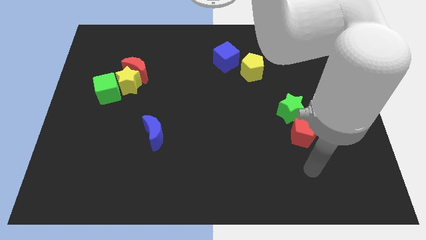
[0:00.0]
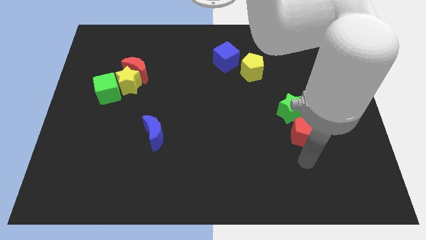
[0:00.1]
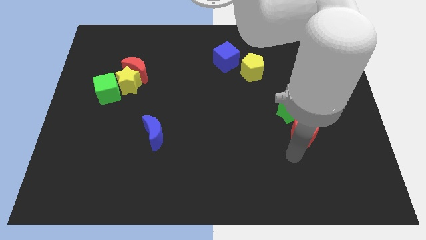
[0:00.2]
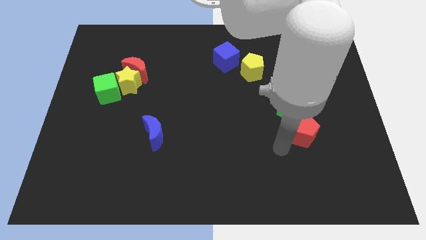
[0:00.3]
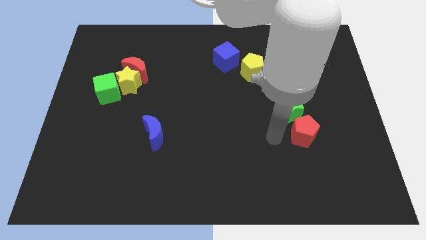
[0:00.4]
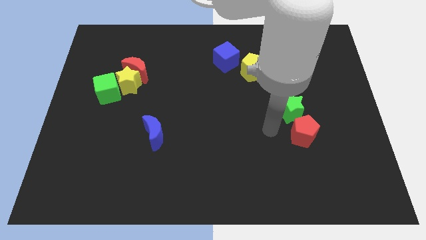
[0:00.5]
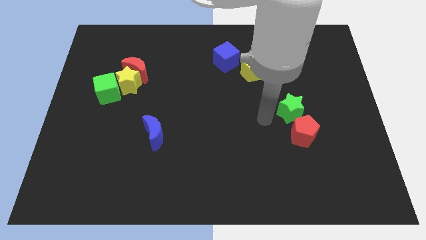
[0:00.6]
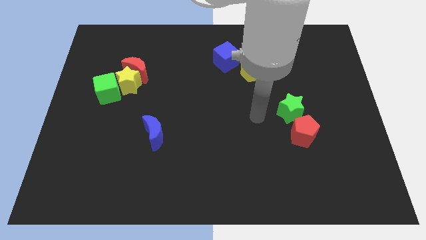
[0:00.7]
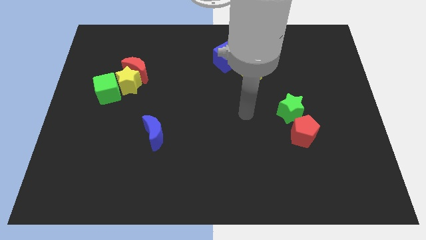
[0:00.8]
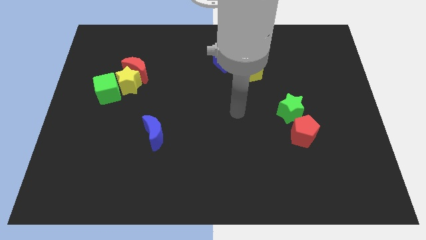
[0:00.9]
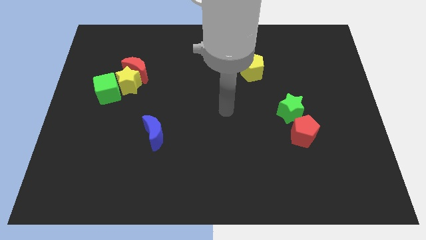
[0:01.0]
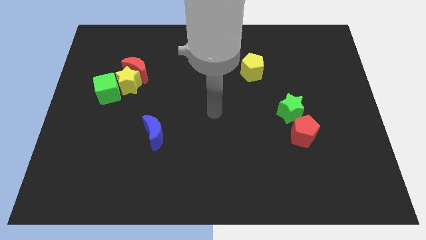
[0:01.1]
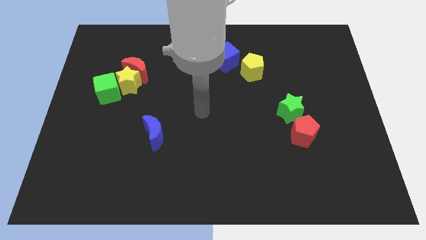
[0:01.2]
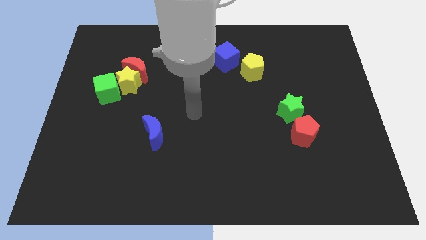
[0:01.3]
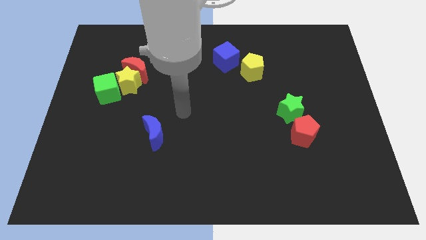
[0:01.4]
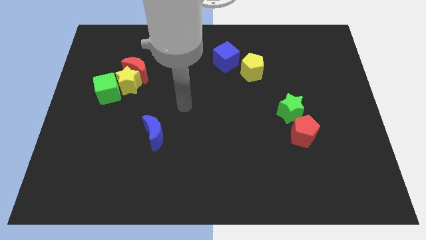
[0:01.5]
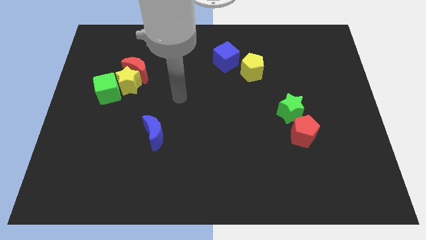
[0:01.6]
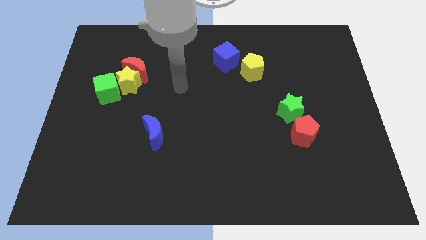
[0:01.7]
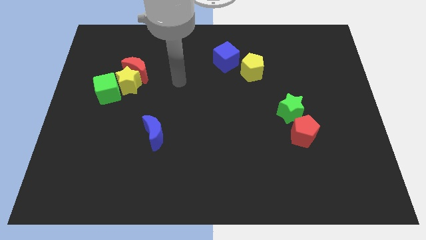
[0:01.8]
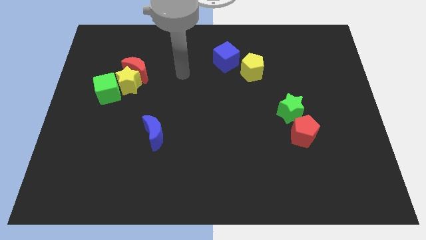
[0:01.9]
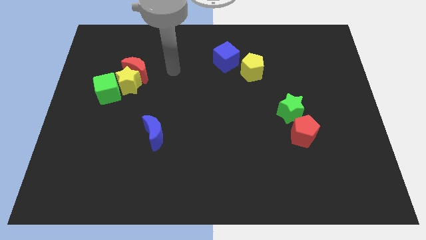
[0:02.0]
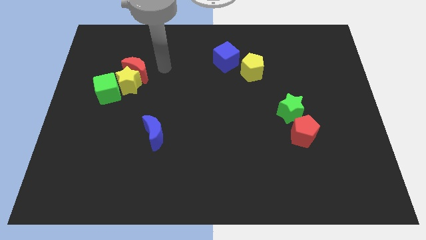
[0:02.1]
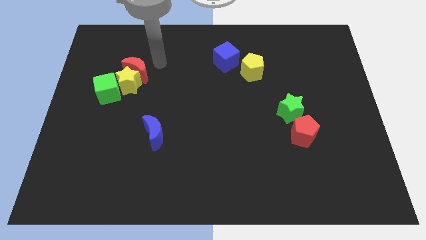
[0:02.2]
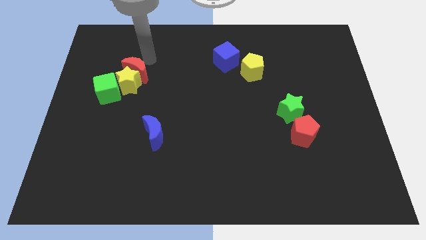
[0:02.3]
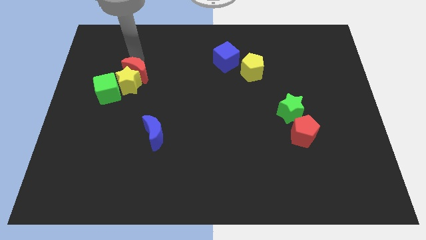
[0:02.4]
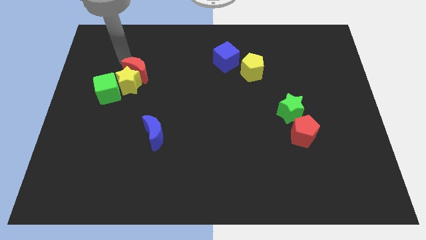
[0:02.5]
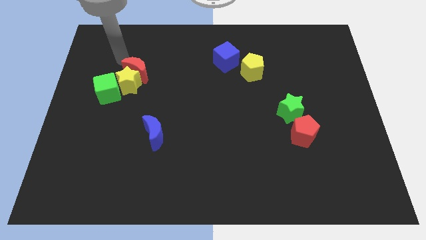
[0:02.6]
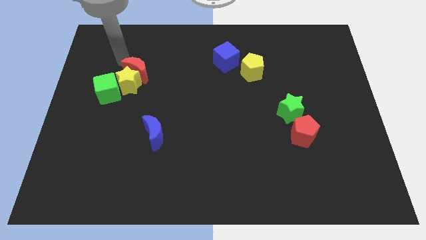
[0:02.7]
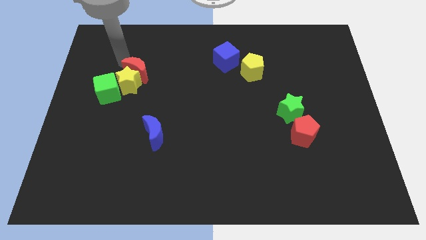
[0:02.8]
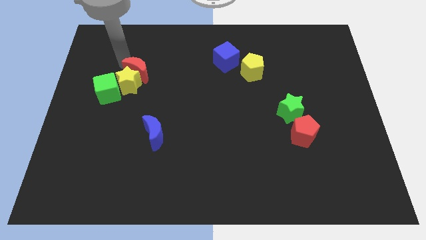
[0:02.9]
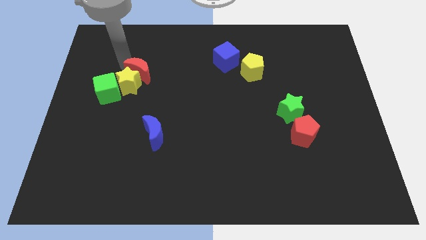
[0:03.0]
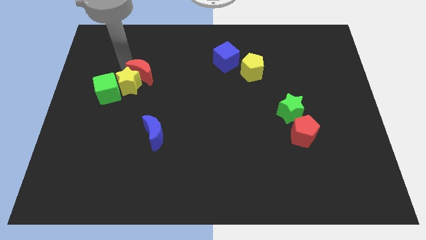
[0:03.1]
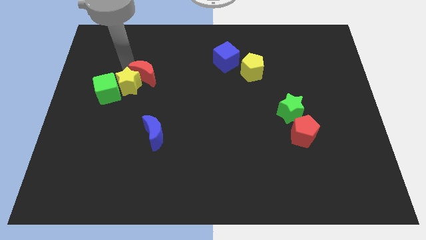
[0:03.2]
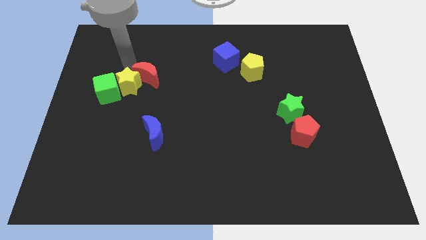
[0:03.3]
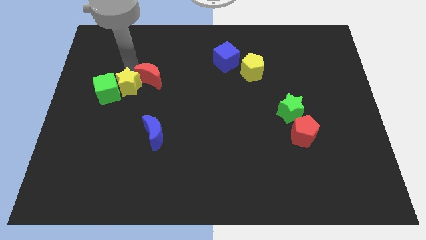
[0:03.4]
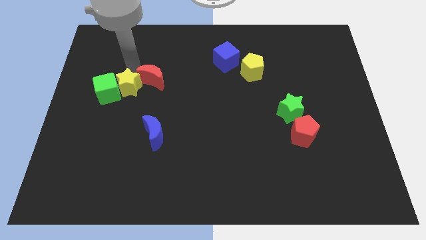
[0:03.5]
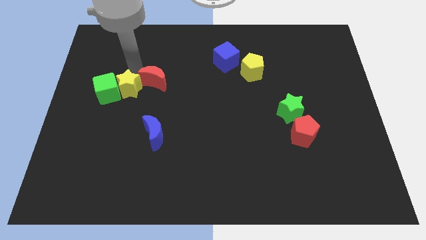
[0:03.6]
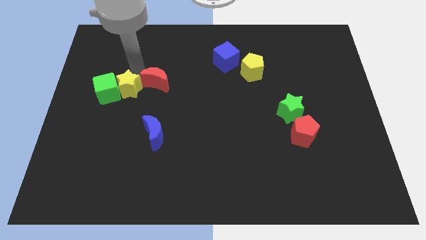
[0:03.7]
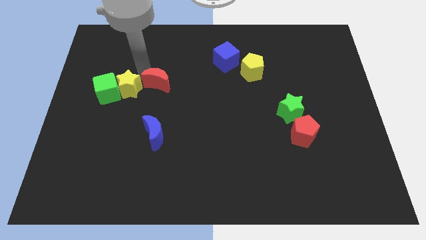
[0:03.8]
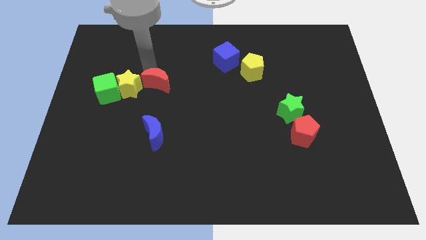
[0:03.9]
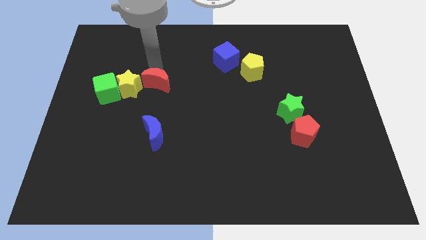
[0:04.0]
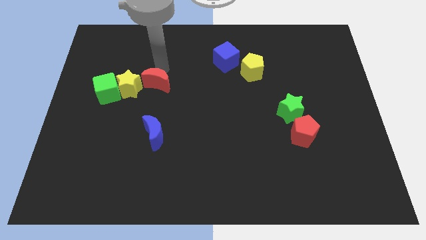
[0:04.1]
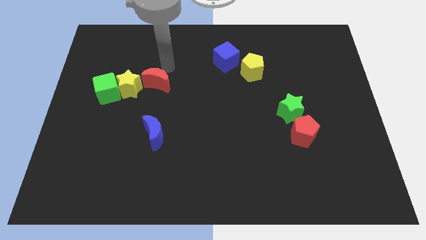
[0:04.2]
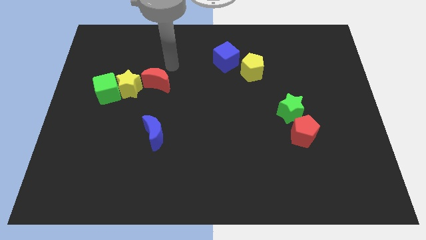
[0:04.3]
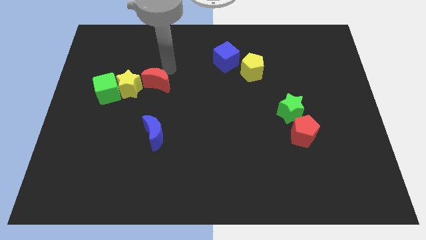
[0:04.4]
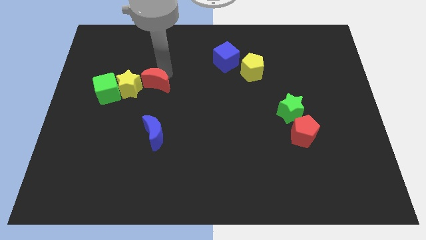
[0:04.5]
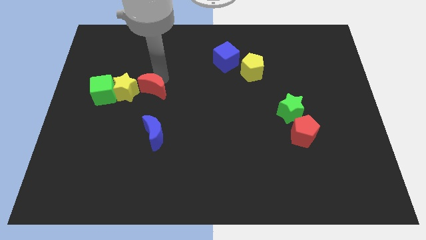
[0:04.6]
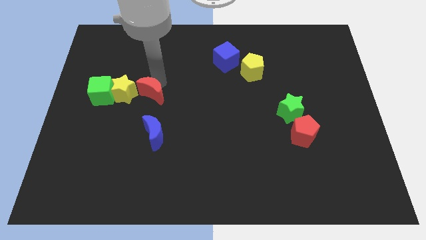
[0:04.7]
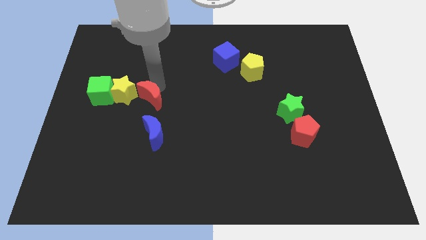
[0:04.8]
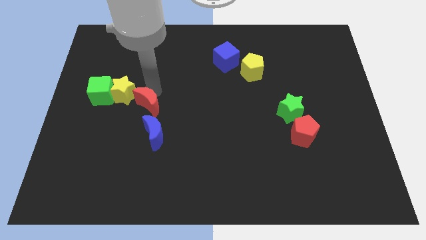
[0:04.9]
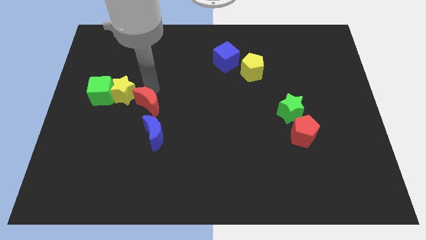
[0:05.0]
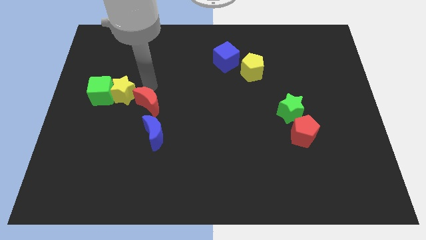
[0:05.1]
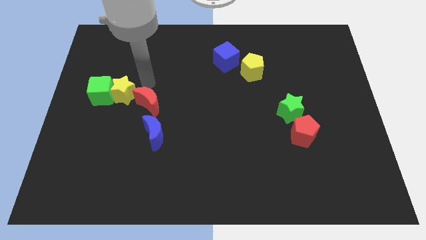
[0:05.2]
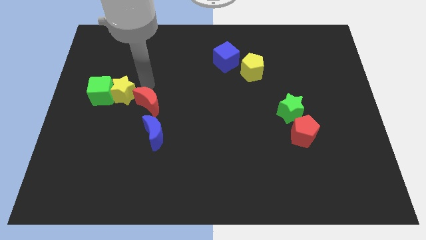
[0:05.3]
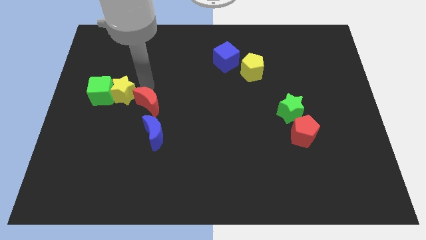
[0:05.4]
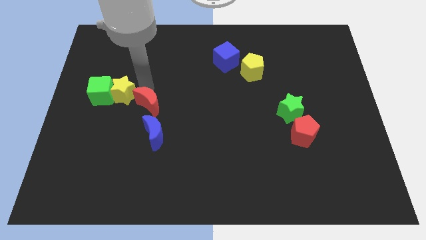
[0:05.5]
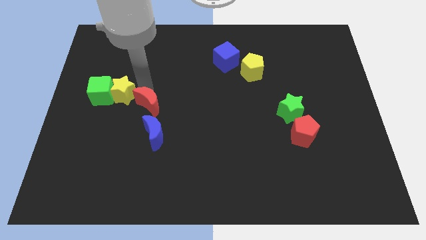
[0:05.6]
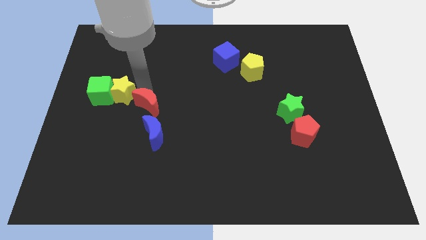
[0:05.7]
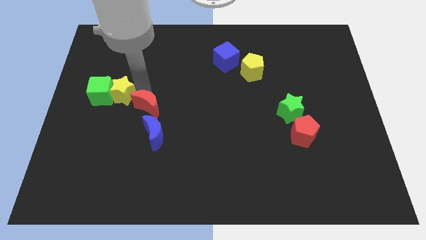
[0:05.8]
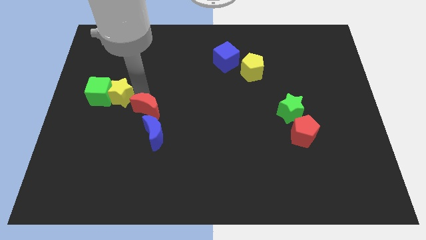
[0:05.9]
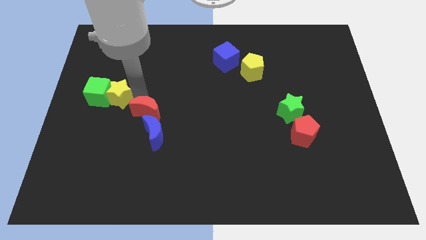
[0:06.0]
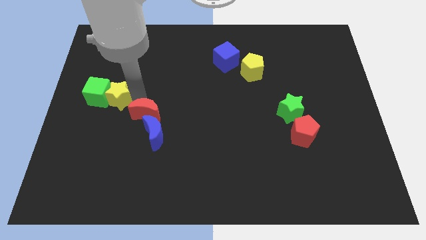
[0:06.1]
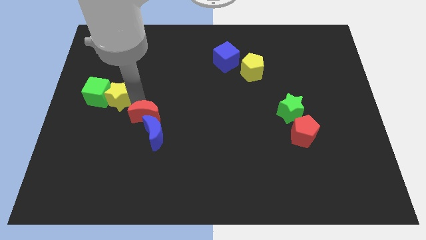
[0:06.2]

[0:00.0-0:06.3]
move the red moon next to the blue moon

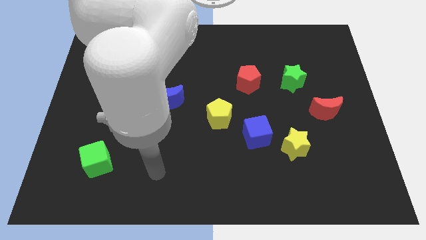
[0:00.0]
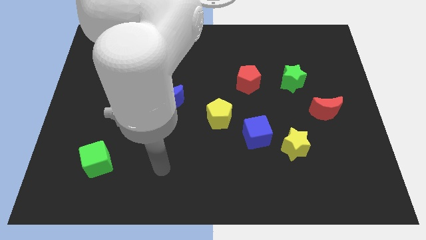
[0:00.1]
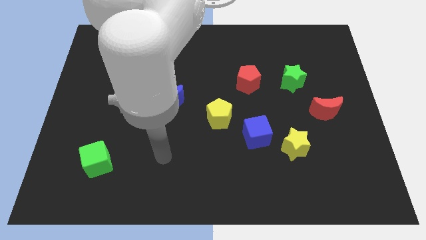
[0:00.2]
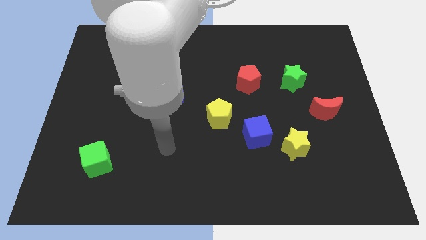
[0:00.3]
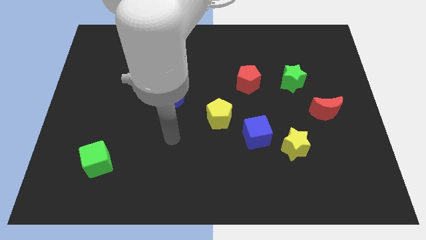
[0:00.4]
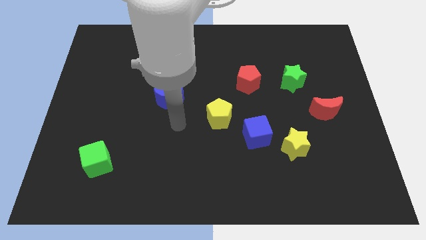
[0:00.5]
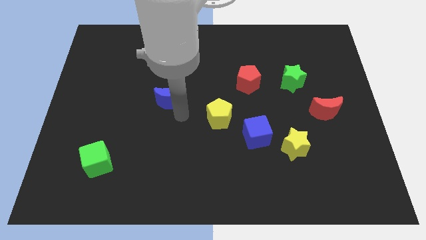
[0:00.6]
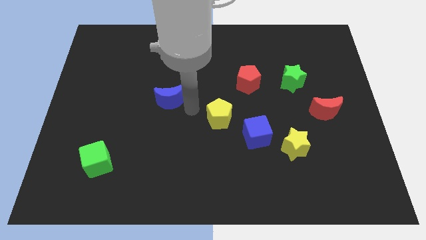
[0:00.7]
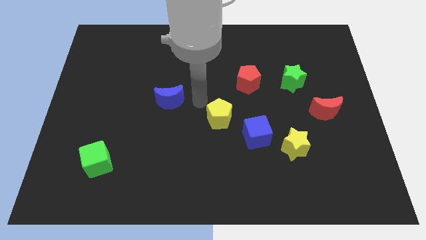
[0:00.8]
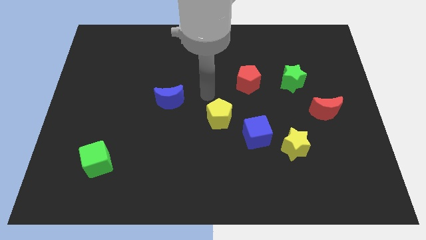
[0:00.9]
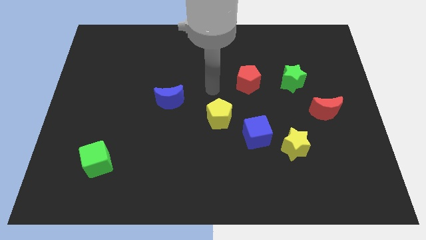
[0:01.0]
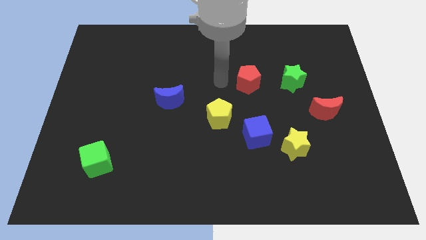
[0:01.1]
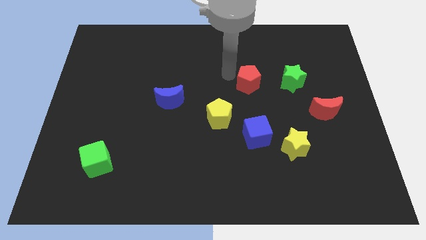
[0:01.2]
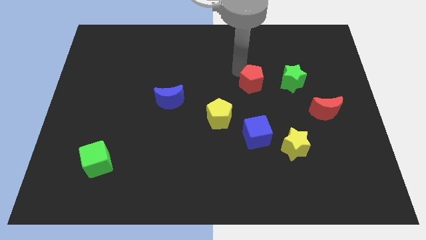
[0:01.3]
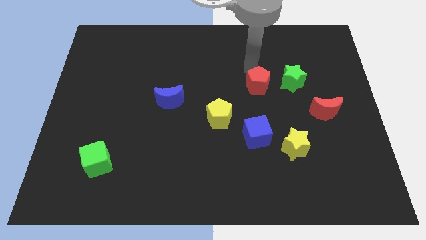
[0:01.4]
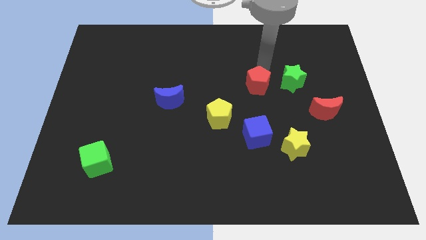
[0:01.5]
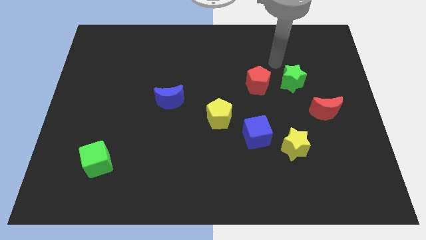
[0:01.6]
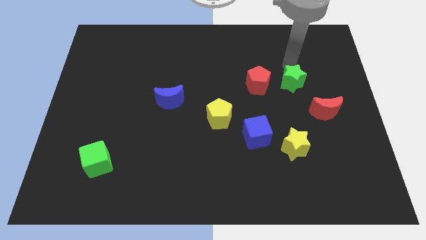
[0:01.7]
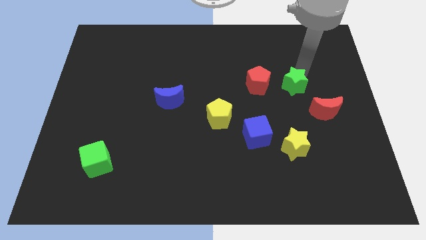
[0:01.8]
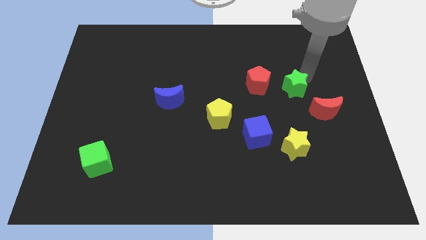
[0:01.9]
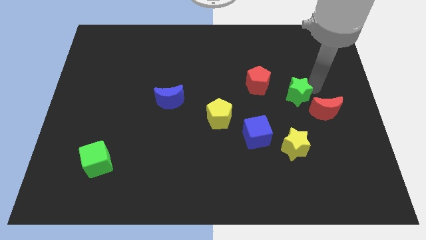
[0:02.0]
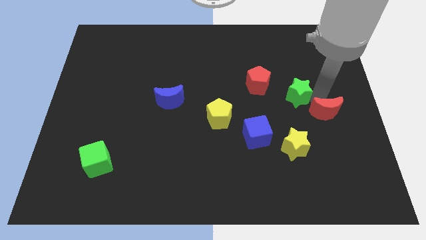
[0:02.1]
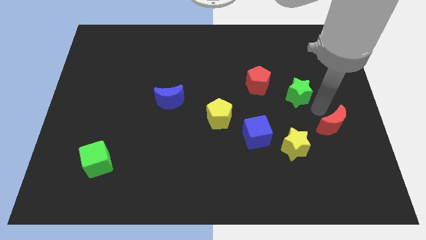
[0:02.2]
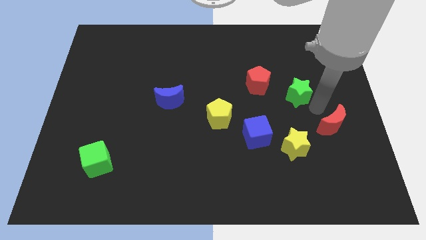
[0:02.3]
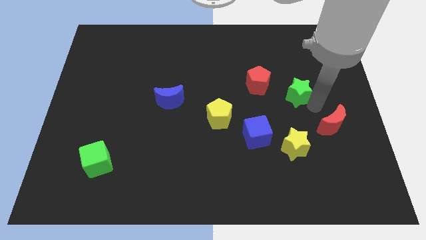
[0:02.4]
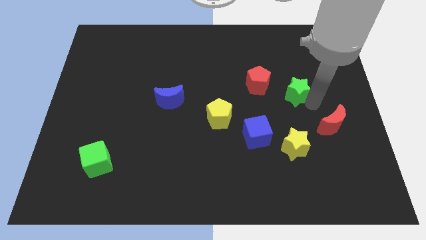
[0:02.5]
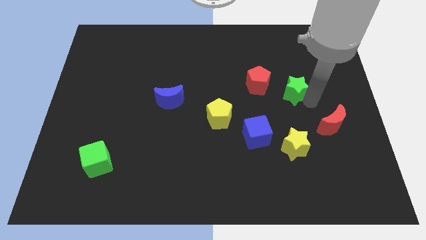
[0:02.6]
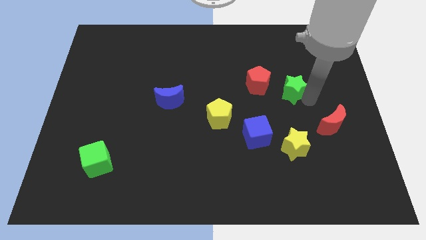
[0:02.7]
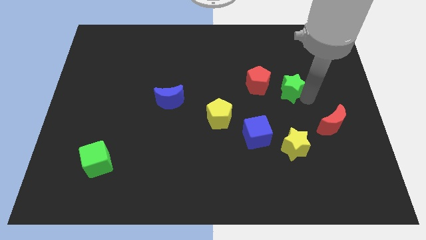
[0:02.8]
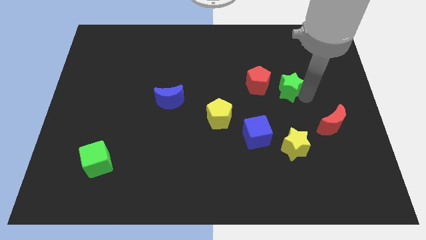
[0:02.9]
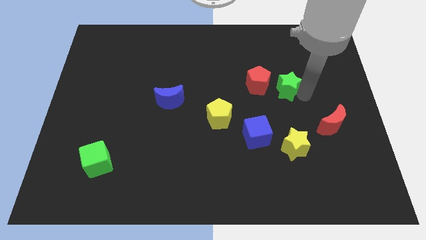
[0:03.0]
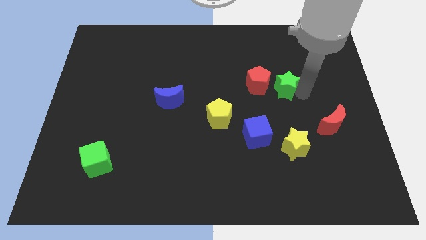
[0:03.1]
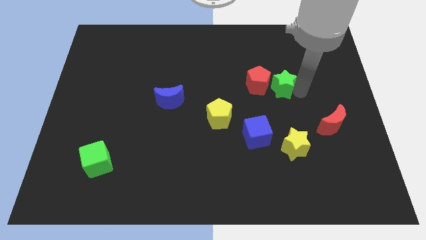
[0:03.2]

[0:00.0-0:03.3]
move the green star towards the red pentagon
